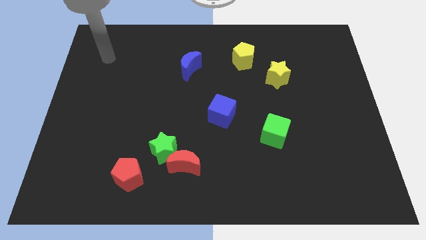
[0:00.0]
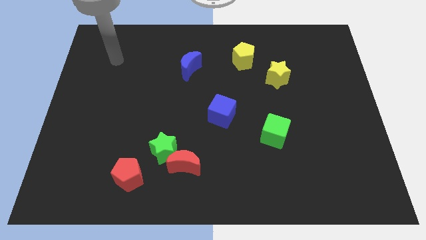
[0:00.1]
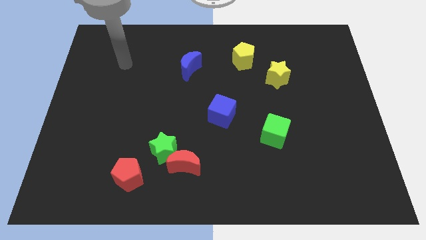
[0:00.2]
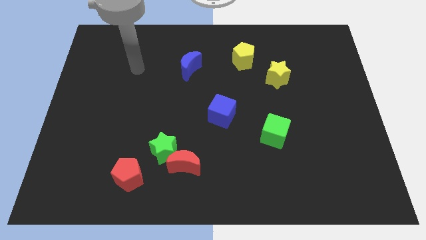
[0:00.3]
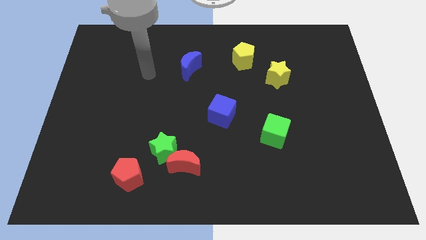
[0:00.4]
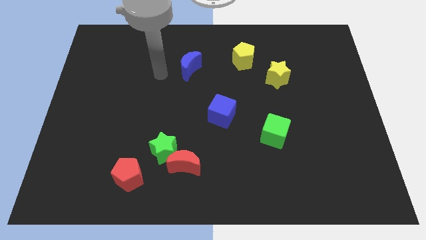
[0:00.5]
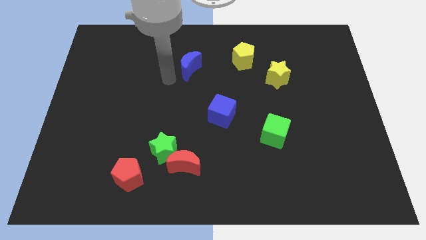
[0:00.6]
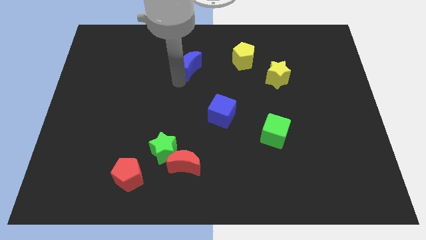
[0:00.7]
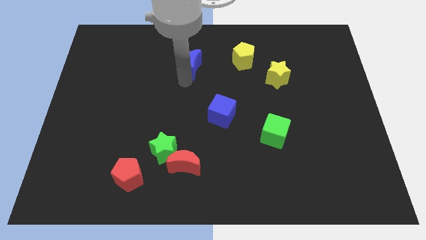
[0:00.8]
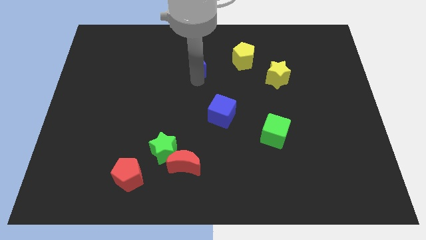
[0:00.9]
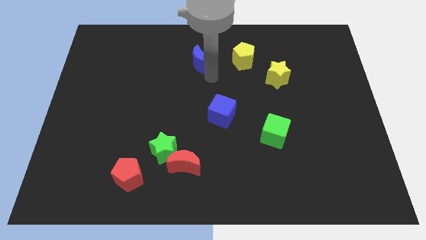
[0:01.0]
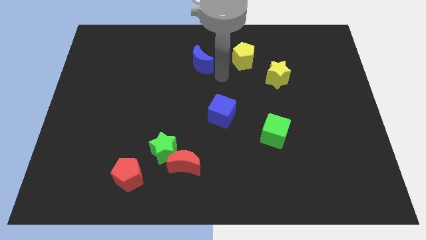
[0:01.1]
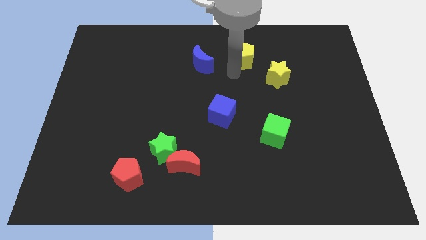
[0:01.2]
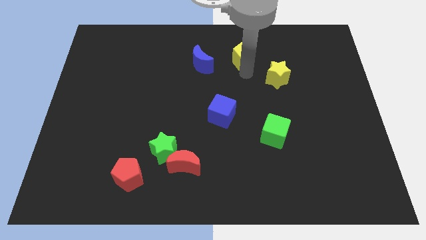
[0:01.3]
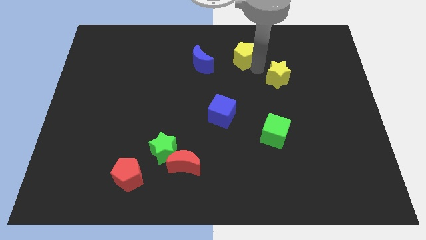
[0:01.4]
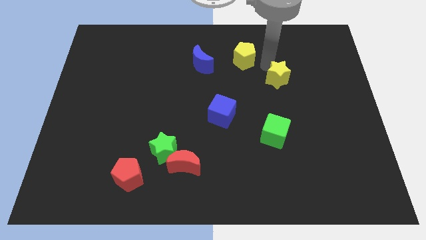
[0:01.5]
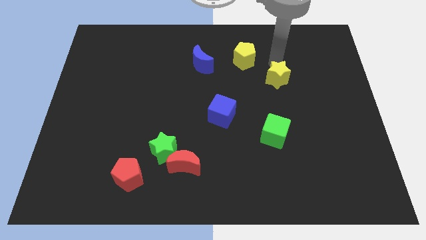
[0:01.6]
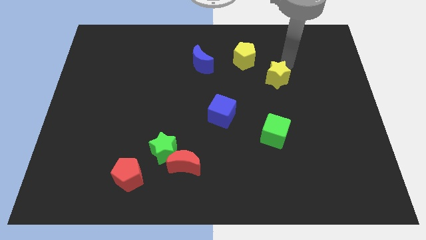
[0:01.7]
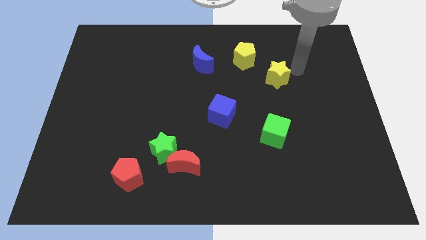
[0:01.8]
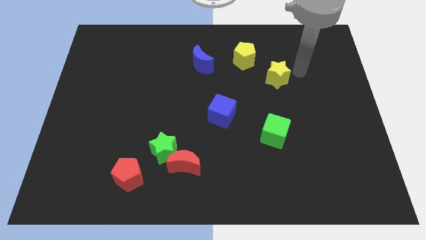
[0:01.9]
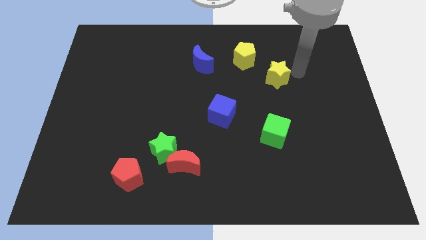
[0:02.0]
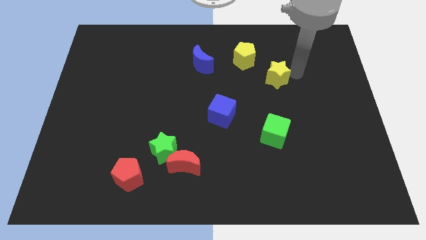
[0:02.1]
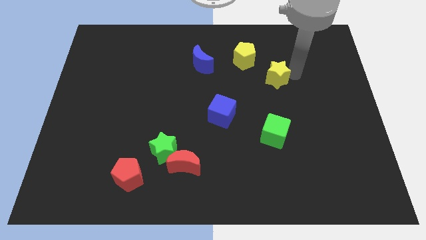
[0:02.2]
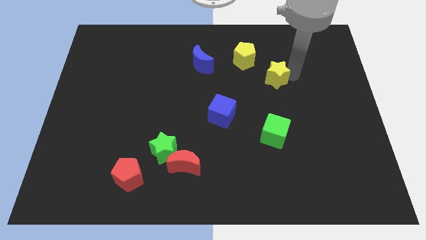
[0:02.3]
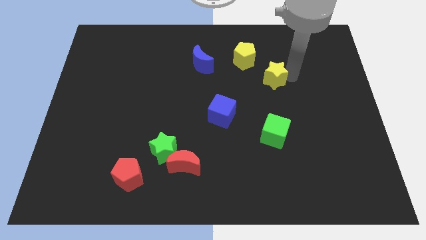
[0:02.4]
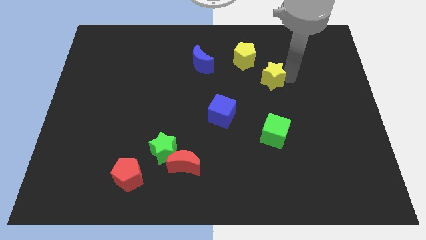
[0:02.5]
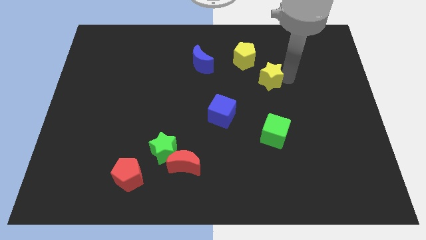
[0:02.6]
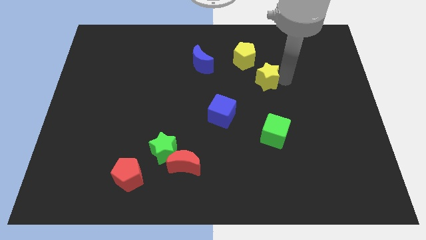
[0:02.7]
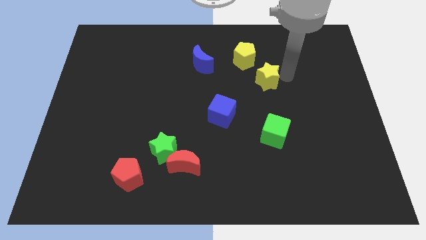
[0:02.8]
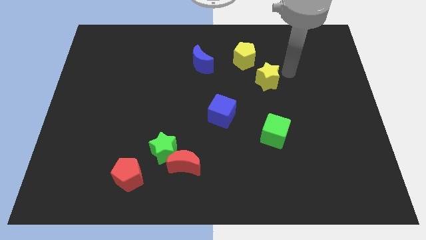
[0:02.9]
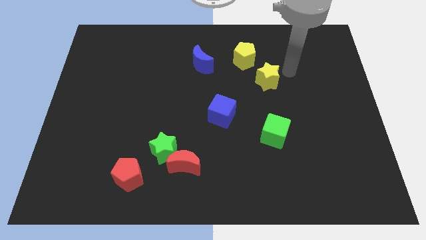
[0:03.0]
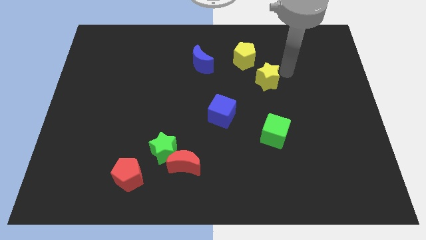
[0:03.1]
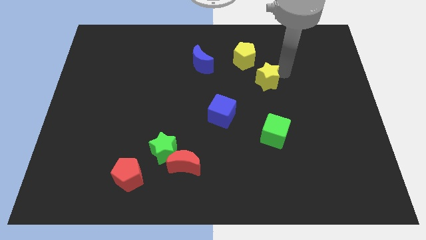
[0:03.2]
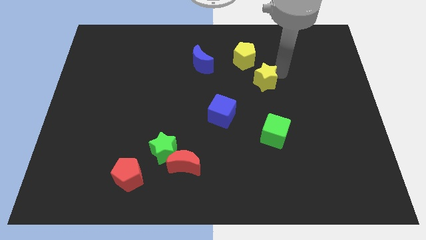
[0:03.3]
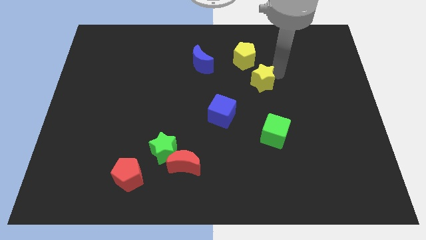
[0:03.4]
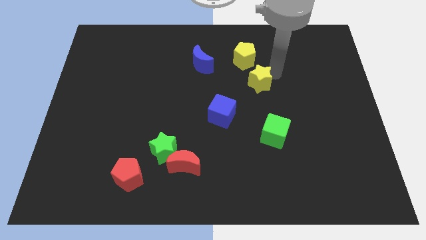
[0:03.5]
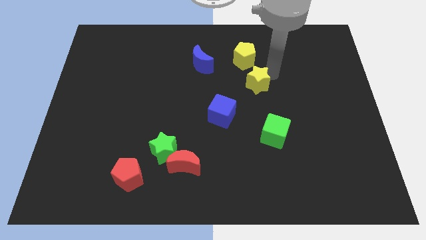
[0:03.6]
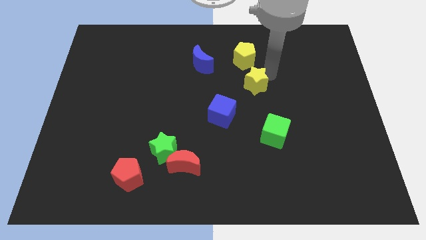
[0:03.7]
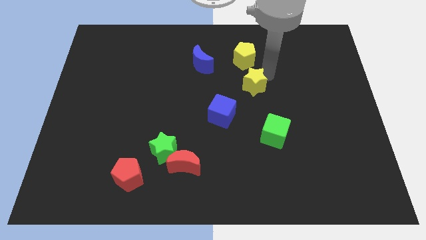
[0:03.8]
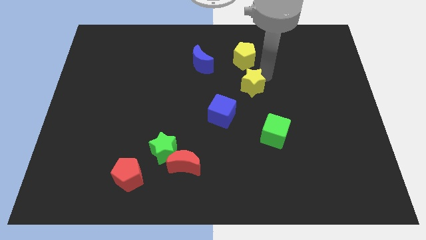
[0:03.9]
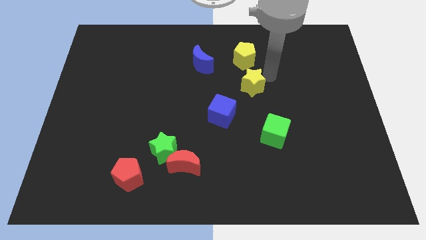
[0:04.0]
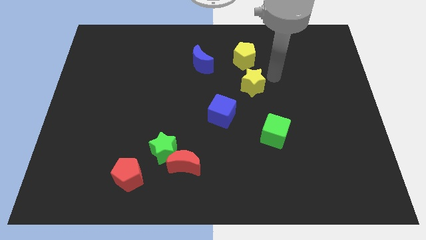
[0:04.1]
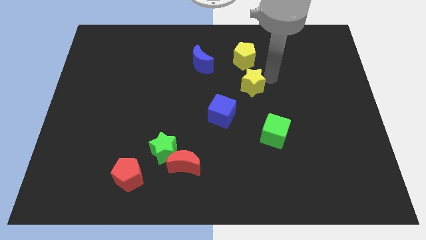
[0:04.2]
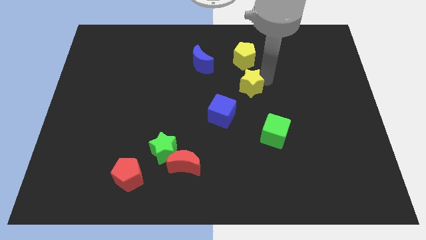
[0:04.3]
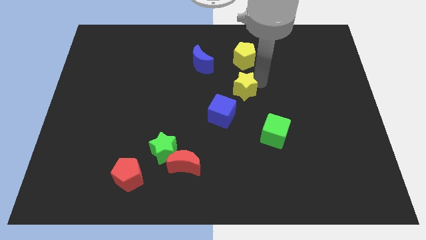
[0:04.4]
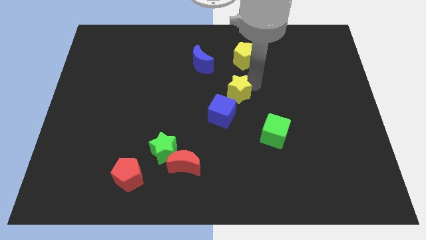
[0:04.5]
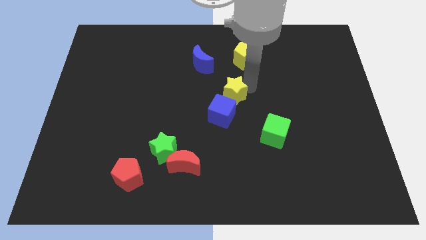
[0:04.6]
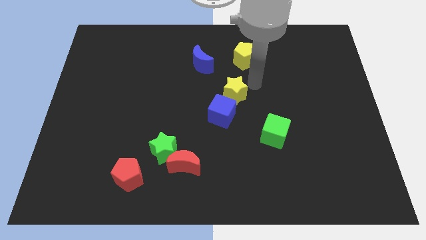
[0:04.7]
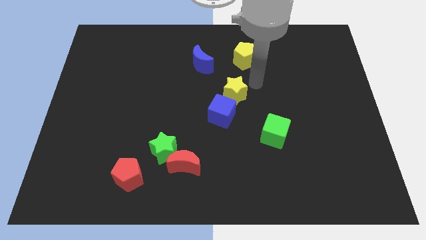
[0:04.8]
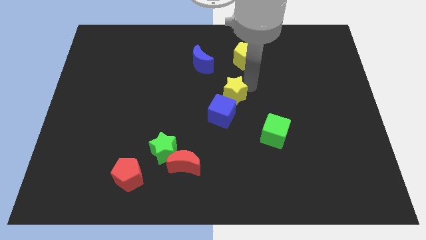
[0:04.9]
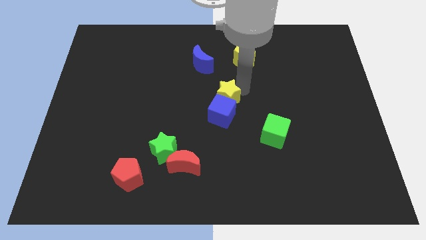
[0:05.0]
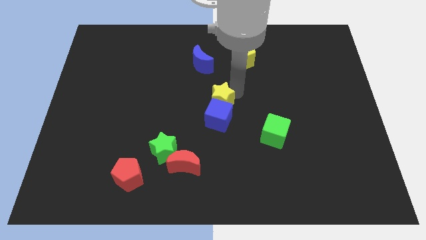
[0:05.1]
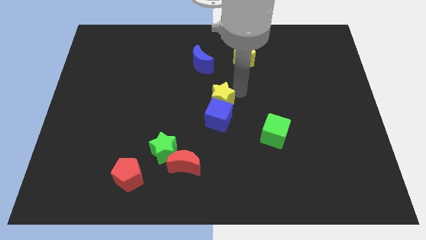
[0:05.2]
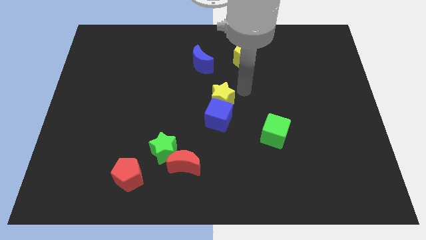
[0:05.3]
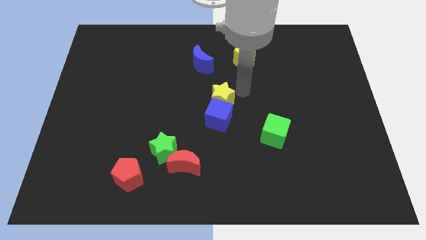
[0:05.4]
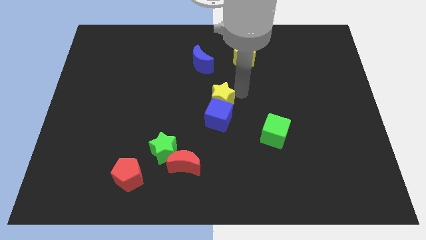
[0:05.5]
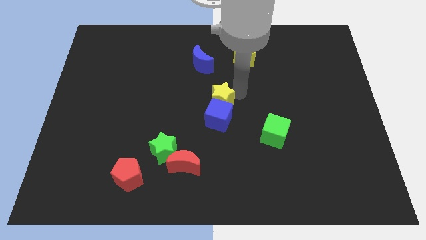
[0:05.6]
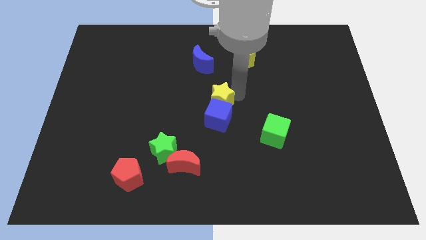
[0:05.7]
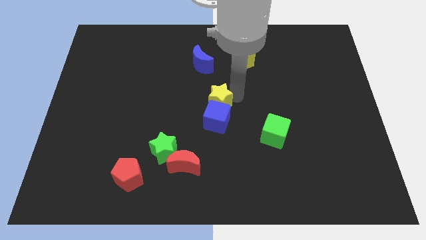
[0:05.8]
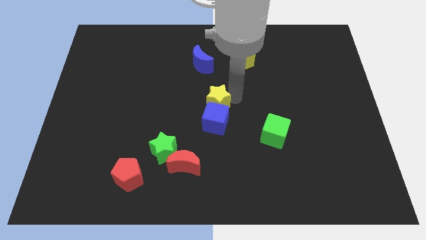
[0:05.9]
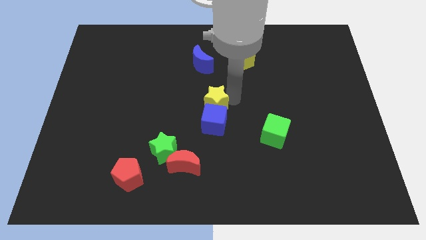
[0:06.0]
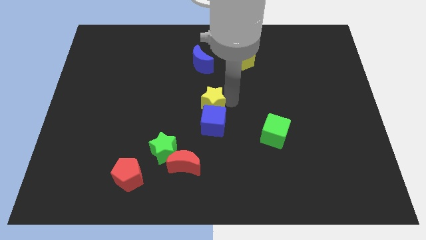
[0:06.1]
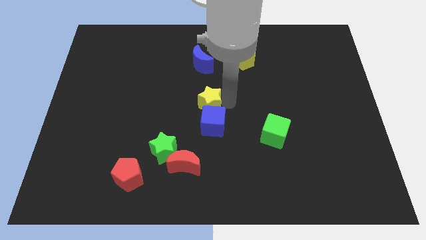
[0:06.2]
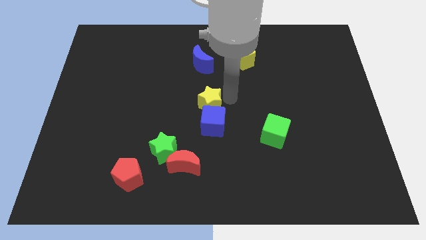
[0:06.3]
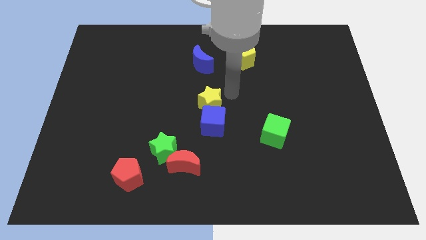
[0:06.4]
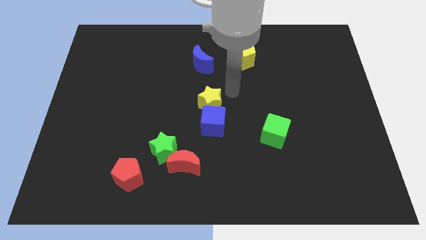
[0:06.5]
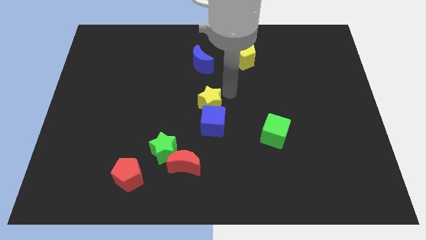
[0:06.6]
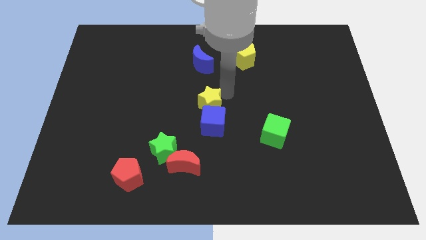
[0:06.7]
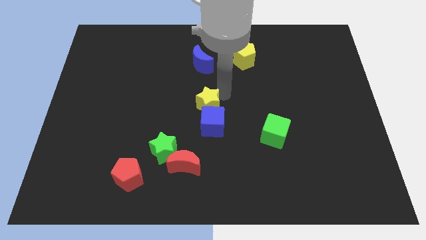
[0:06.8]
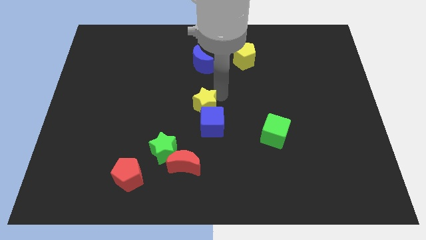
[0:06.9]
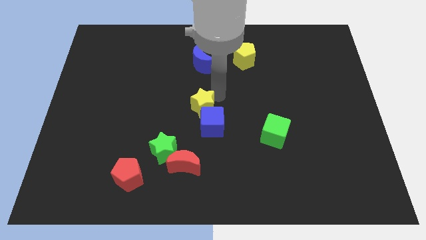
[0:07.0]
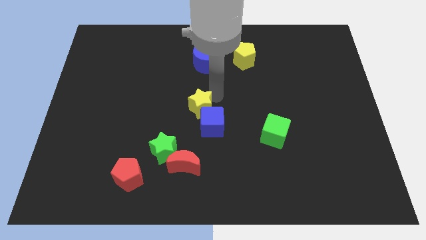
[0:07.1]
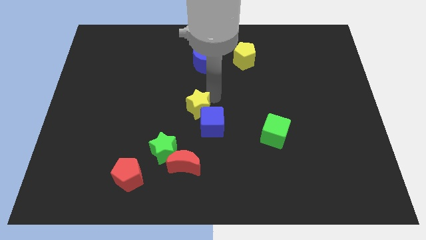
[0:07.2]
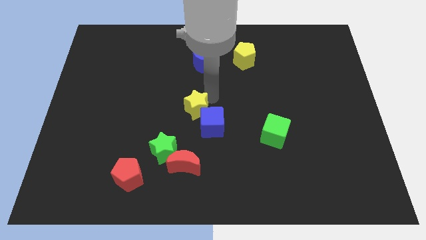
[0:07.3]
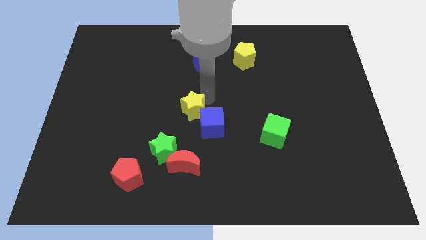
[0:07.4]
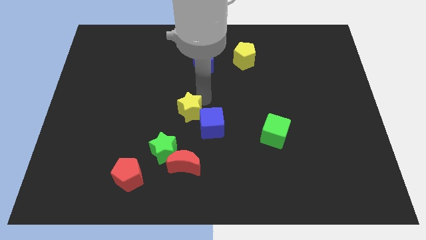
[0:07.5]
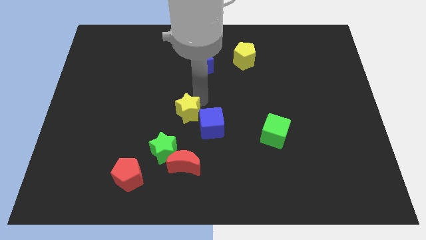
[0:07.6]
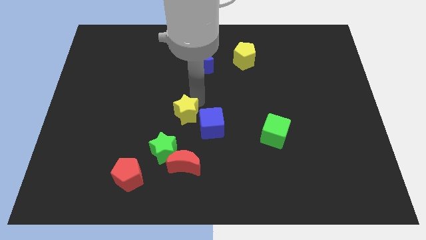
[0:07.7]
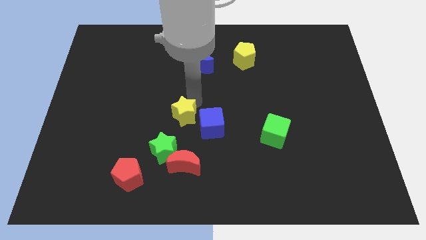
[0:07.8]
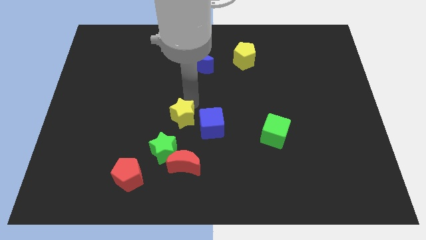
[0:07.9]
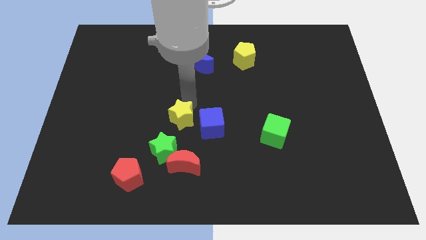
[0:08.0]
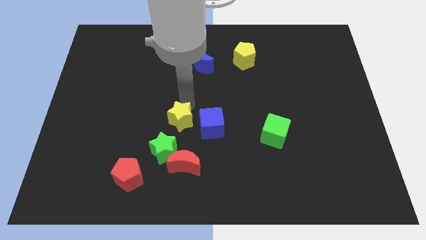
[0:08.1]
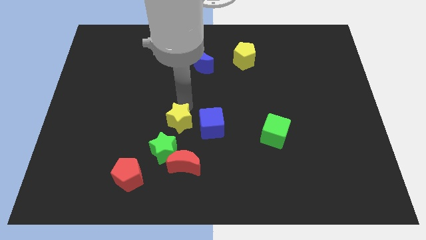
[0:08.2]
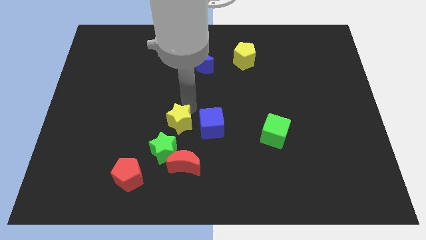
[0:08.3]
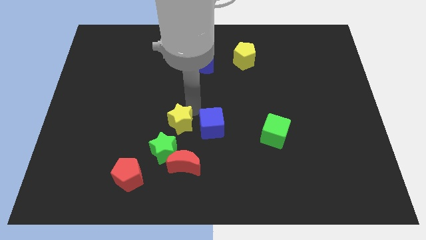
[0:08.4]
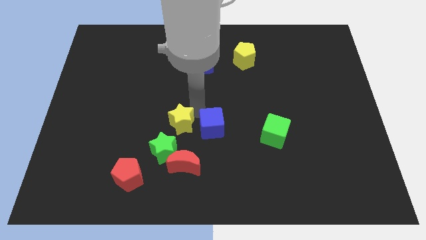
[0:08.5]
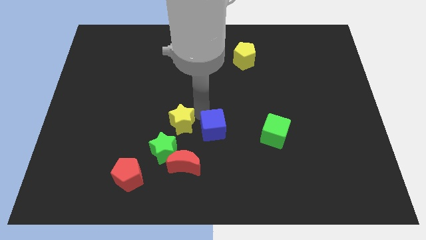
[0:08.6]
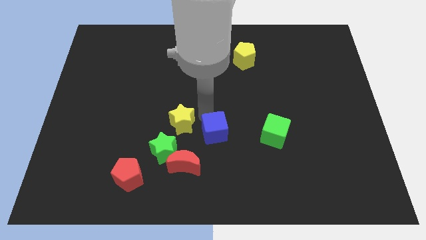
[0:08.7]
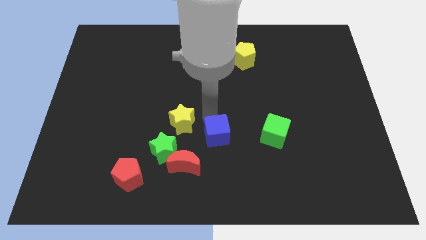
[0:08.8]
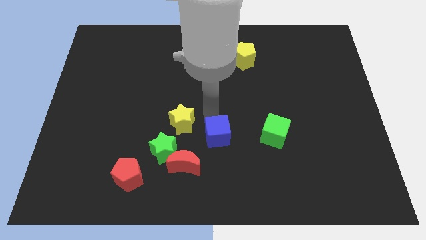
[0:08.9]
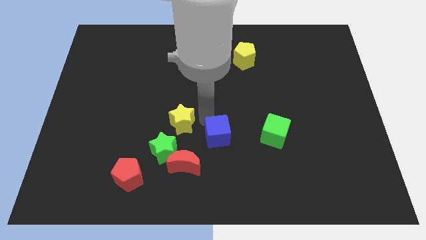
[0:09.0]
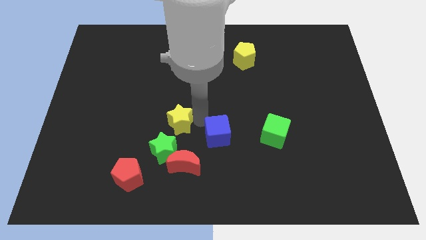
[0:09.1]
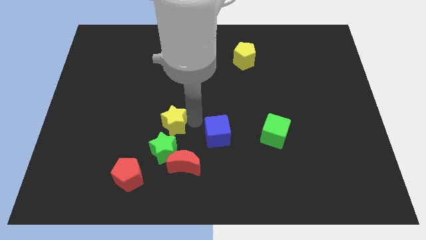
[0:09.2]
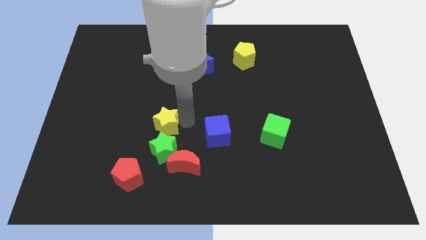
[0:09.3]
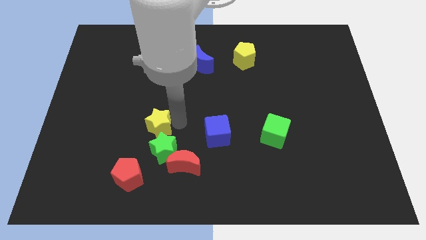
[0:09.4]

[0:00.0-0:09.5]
push the yellow star diagonally up and to the left of the green star
